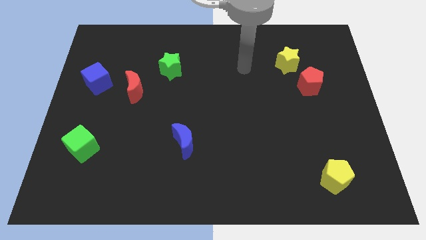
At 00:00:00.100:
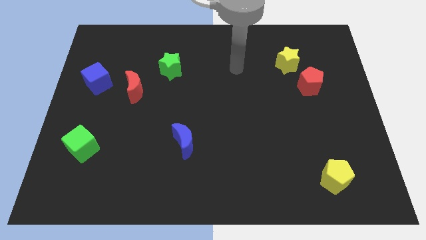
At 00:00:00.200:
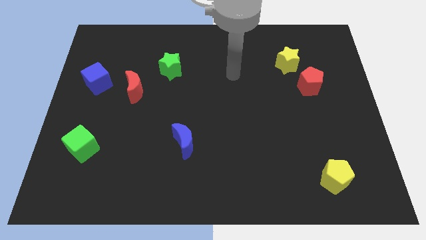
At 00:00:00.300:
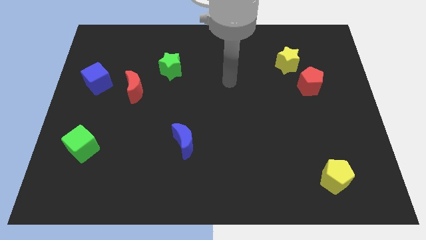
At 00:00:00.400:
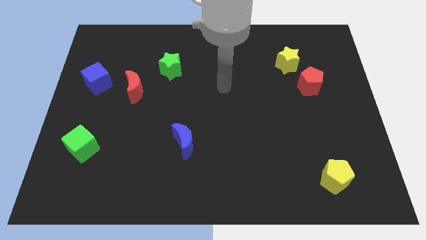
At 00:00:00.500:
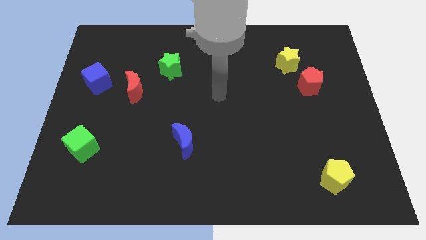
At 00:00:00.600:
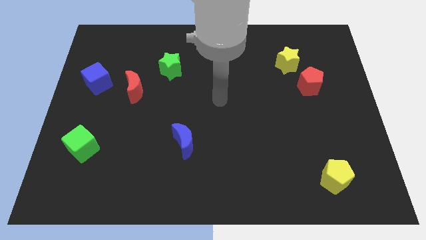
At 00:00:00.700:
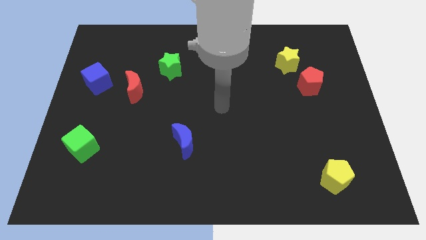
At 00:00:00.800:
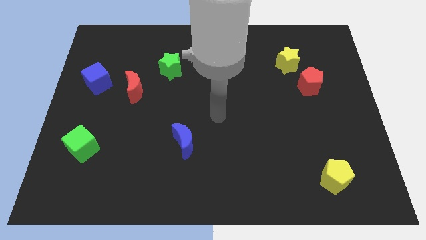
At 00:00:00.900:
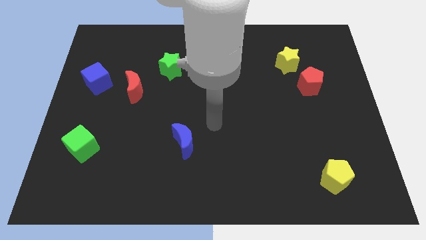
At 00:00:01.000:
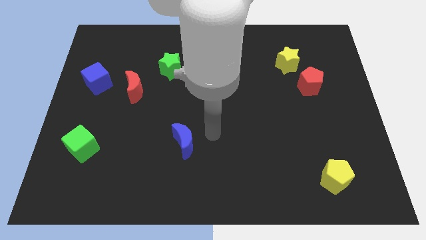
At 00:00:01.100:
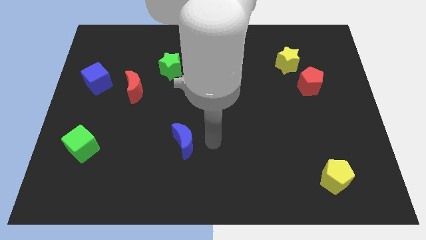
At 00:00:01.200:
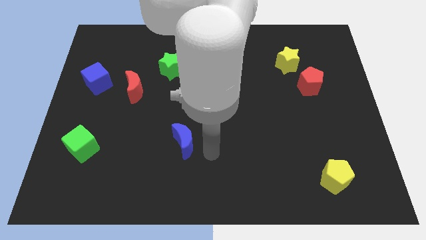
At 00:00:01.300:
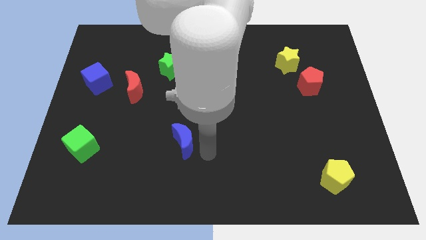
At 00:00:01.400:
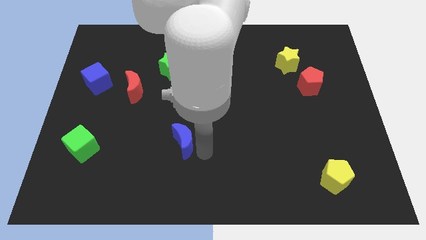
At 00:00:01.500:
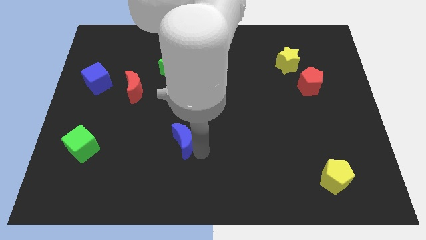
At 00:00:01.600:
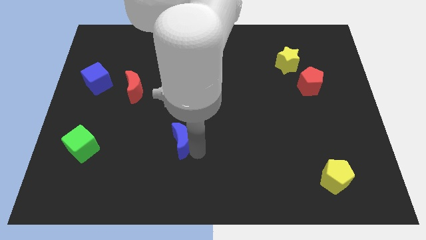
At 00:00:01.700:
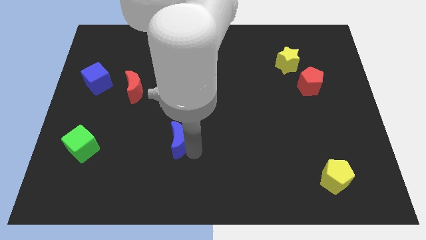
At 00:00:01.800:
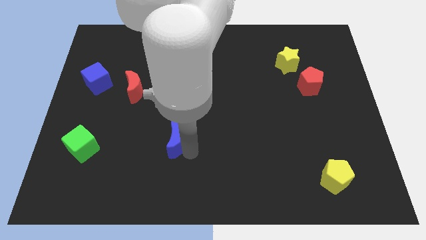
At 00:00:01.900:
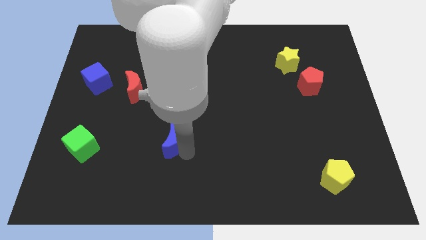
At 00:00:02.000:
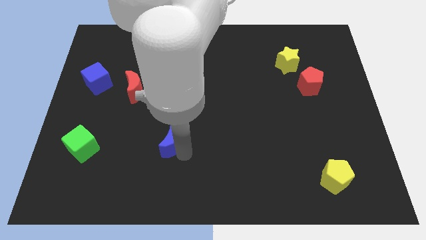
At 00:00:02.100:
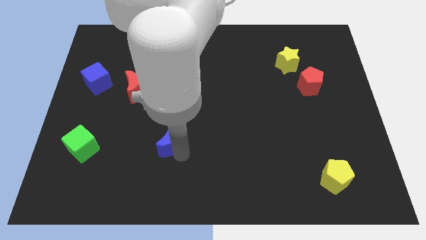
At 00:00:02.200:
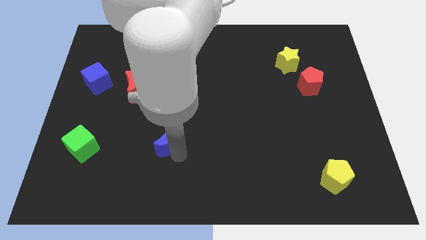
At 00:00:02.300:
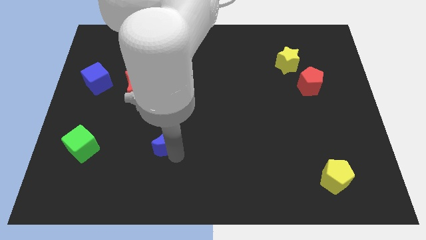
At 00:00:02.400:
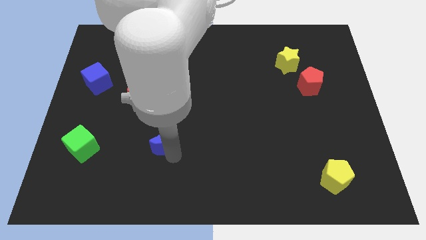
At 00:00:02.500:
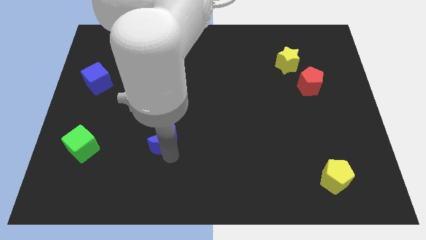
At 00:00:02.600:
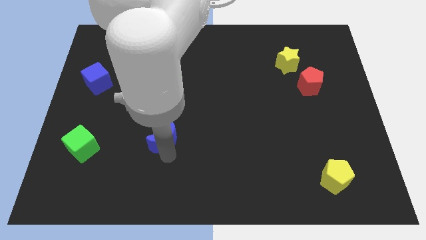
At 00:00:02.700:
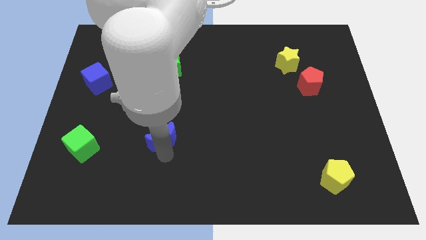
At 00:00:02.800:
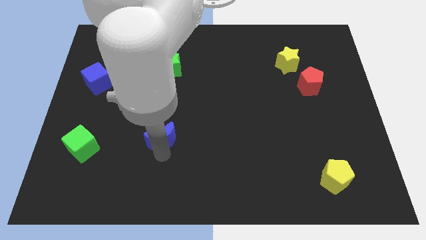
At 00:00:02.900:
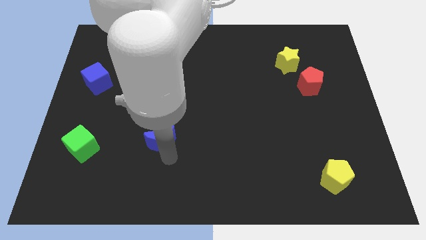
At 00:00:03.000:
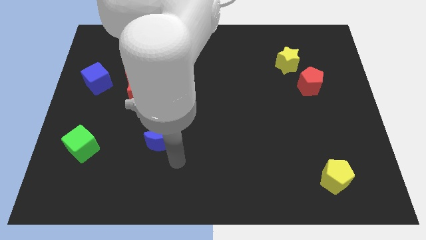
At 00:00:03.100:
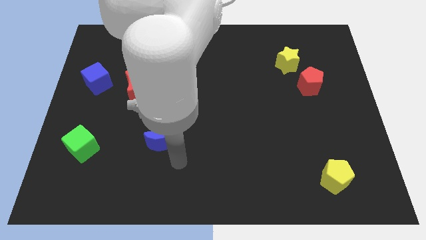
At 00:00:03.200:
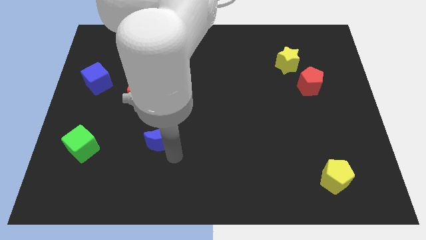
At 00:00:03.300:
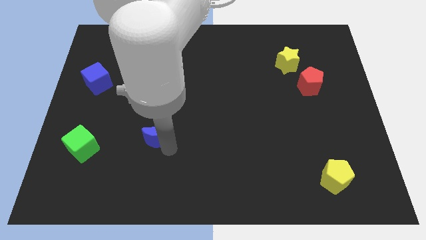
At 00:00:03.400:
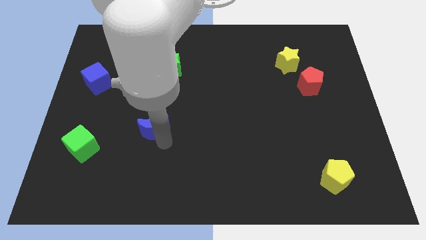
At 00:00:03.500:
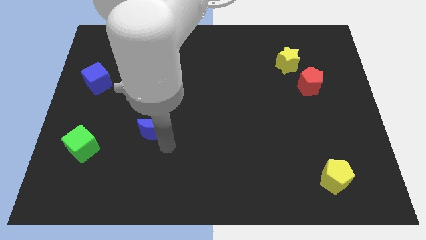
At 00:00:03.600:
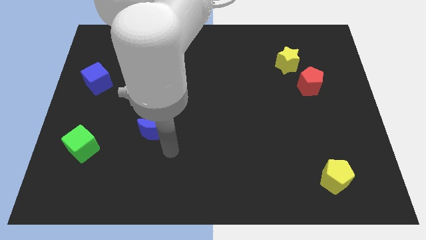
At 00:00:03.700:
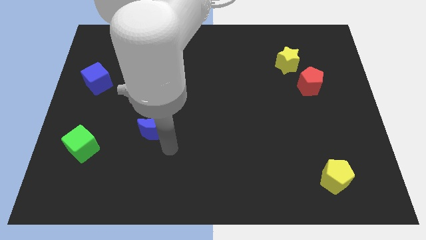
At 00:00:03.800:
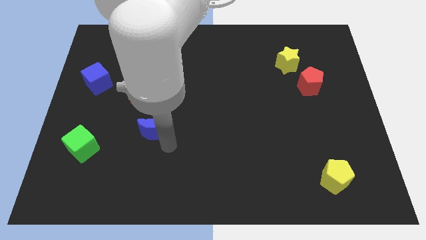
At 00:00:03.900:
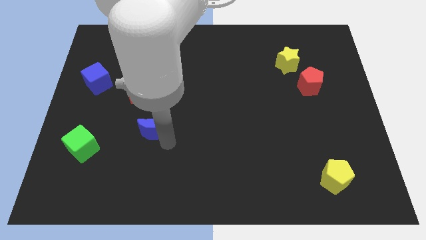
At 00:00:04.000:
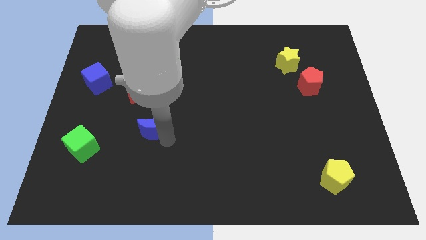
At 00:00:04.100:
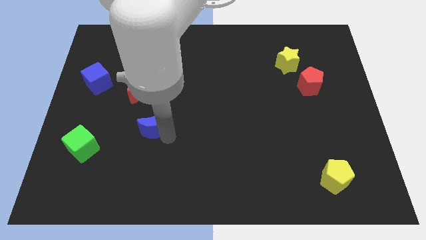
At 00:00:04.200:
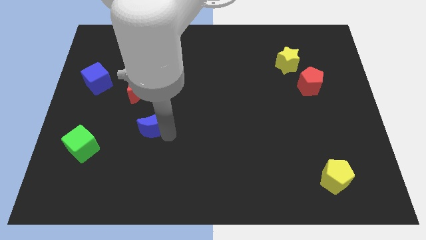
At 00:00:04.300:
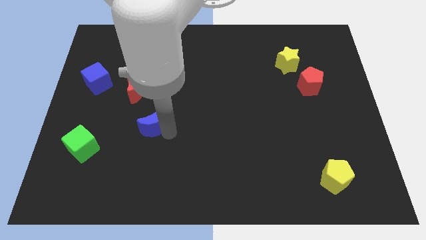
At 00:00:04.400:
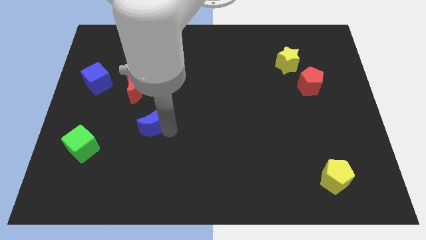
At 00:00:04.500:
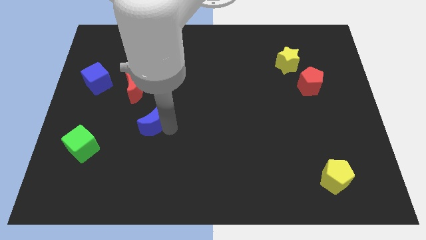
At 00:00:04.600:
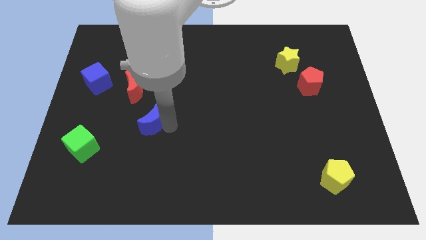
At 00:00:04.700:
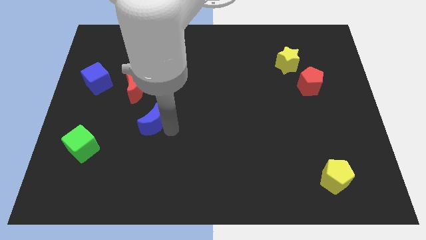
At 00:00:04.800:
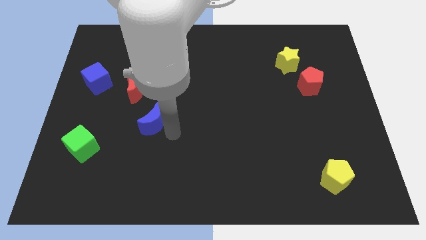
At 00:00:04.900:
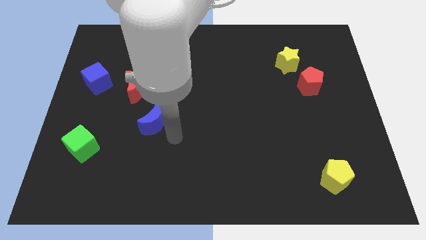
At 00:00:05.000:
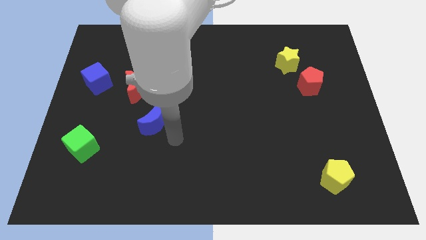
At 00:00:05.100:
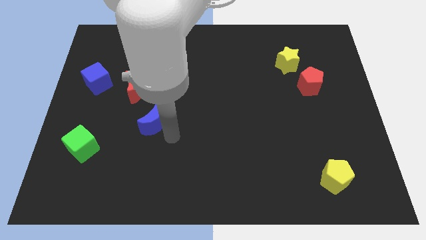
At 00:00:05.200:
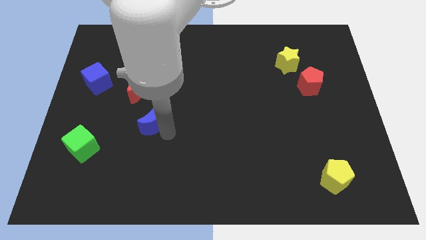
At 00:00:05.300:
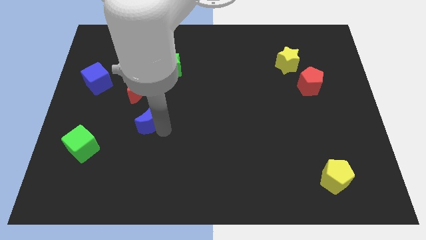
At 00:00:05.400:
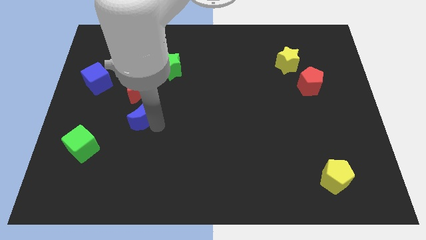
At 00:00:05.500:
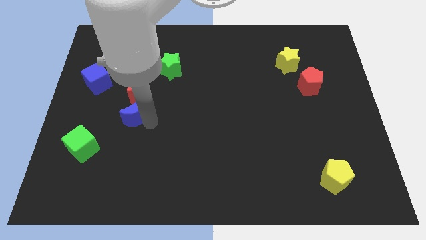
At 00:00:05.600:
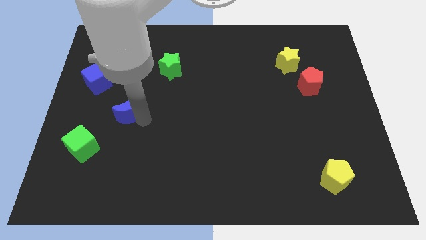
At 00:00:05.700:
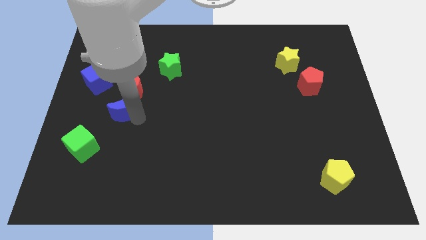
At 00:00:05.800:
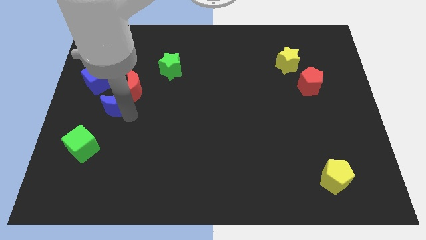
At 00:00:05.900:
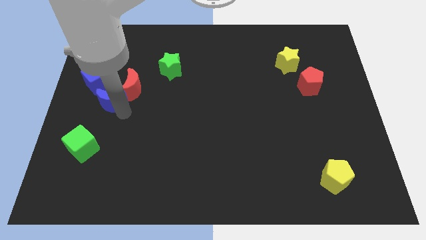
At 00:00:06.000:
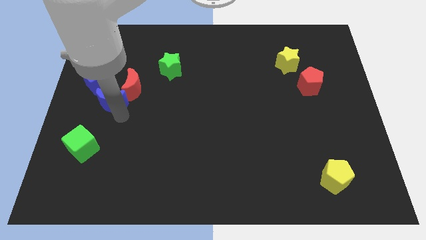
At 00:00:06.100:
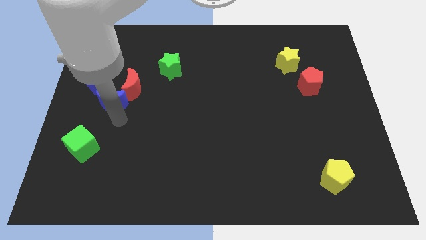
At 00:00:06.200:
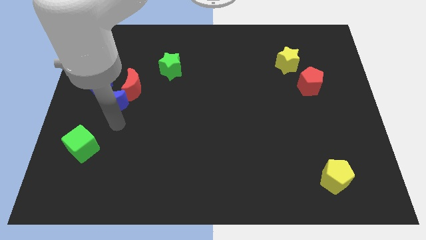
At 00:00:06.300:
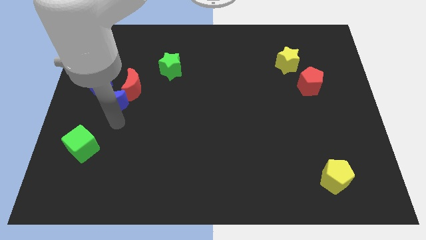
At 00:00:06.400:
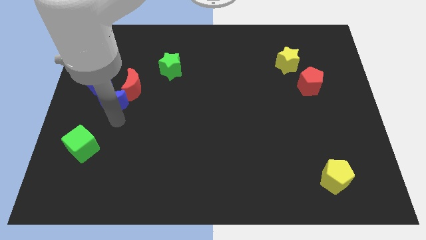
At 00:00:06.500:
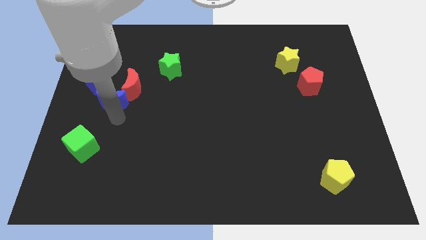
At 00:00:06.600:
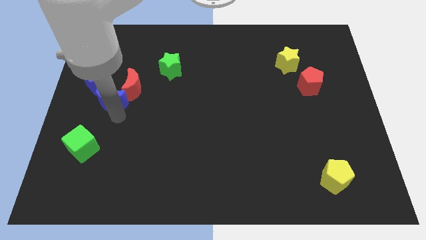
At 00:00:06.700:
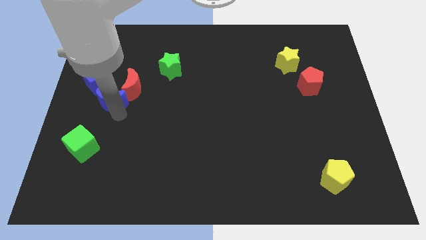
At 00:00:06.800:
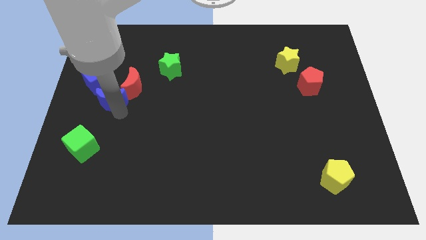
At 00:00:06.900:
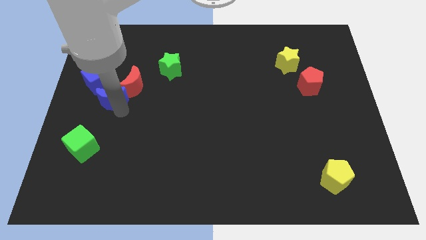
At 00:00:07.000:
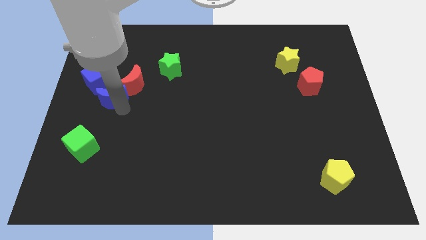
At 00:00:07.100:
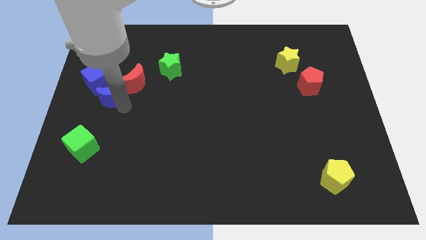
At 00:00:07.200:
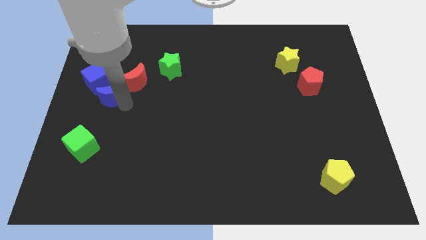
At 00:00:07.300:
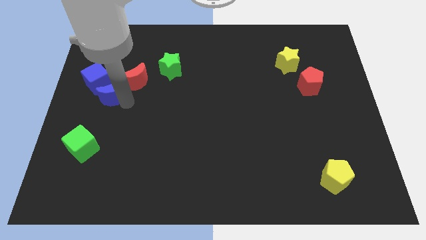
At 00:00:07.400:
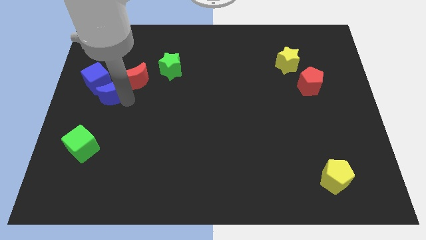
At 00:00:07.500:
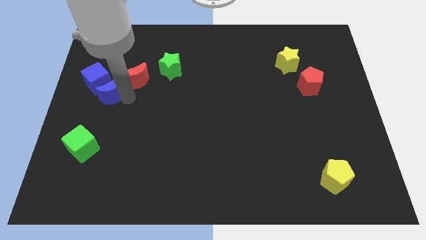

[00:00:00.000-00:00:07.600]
push the blue moon next to the blue cube
